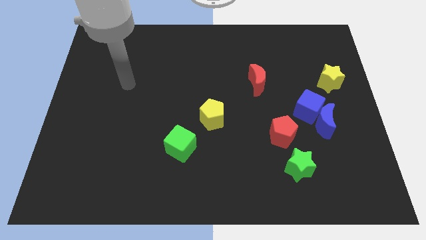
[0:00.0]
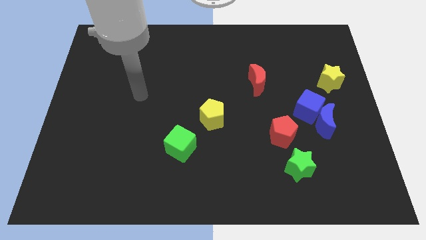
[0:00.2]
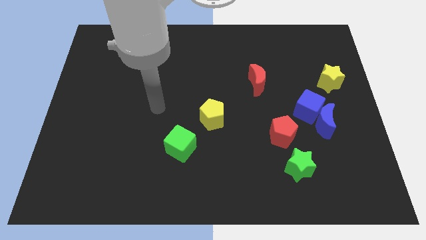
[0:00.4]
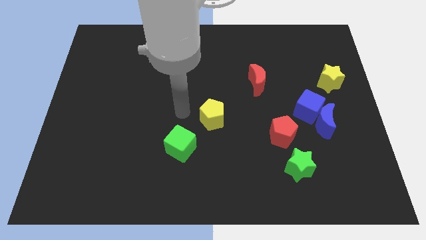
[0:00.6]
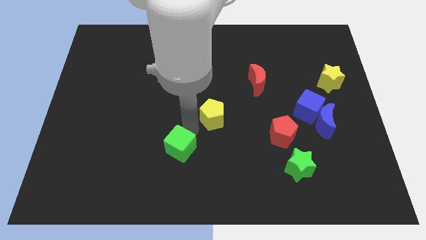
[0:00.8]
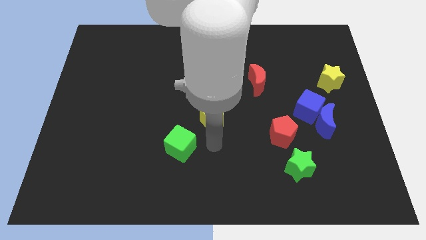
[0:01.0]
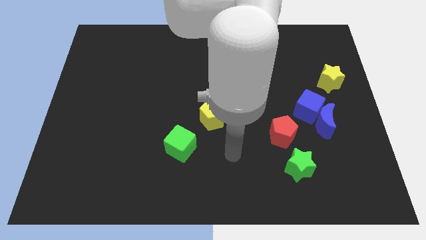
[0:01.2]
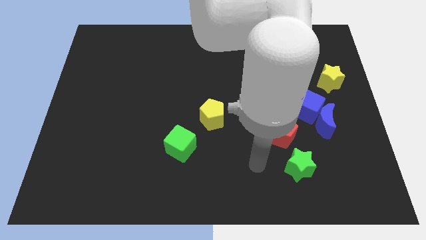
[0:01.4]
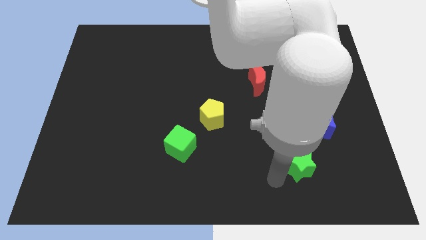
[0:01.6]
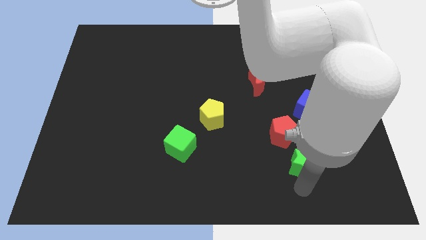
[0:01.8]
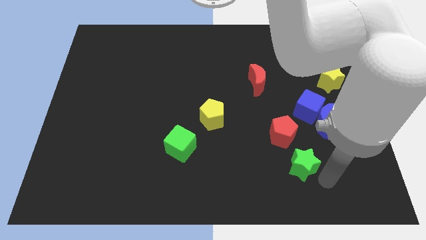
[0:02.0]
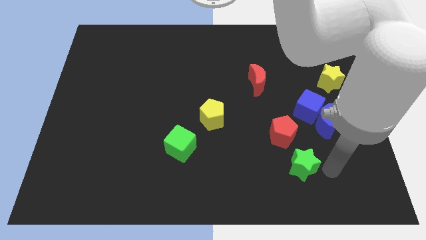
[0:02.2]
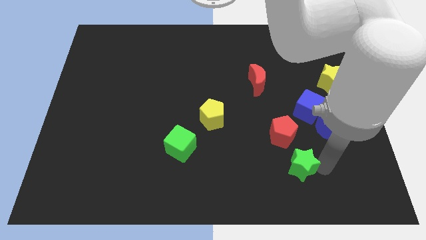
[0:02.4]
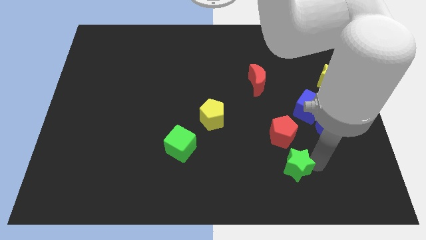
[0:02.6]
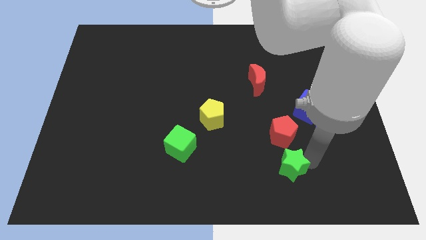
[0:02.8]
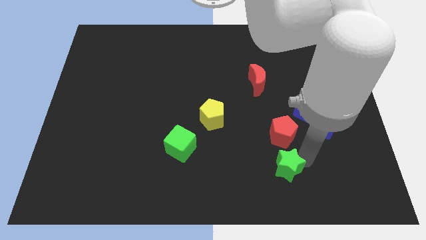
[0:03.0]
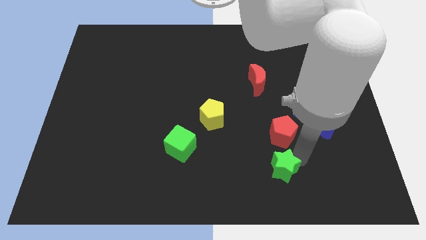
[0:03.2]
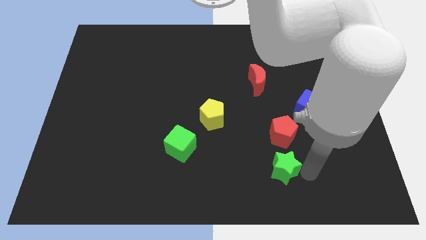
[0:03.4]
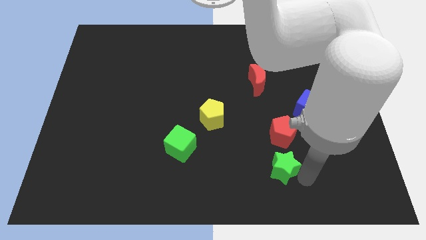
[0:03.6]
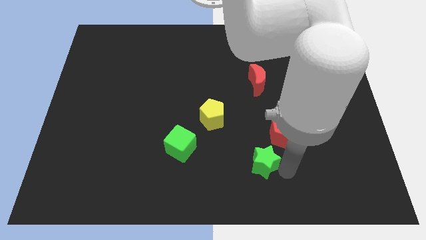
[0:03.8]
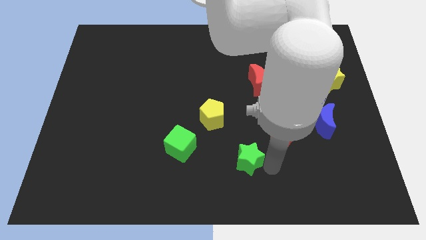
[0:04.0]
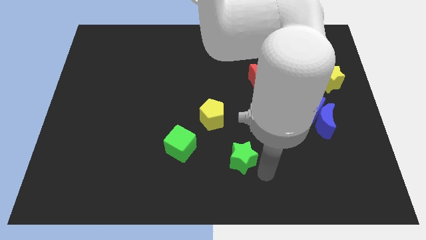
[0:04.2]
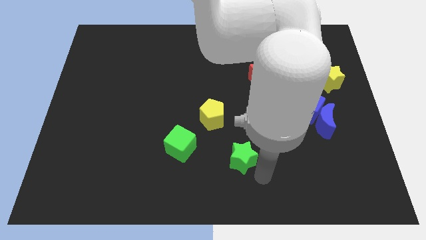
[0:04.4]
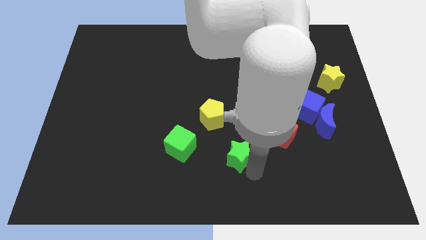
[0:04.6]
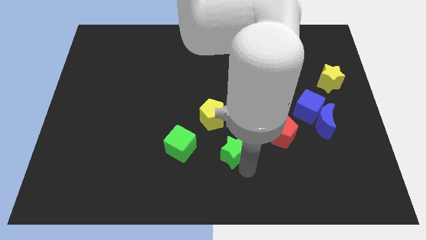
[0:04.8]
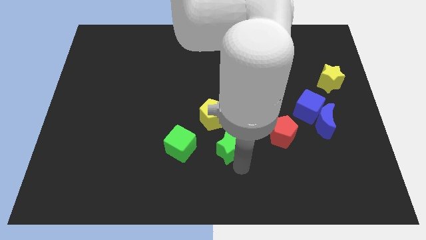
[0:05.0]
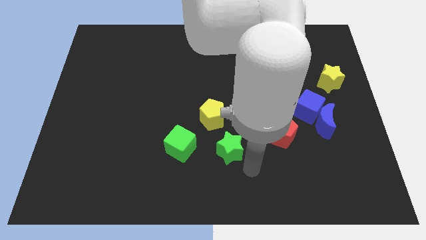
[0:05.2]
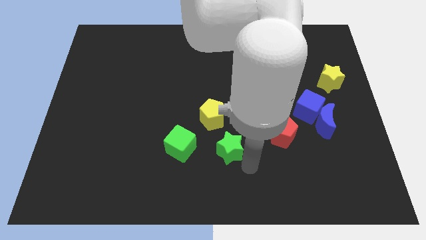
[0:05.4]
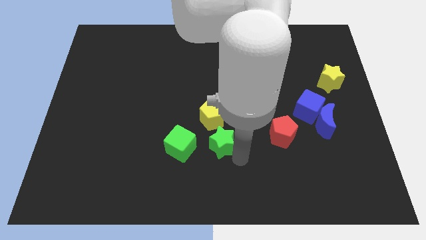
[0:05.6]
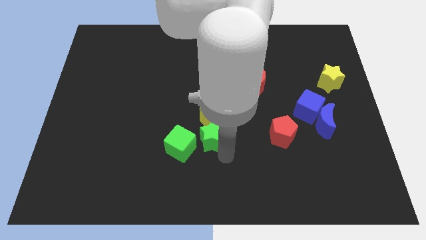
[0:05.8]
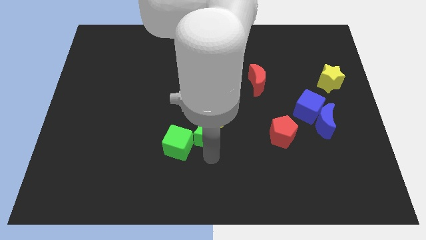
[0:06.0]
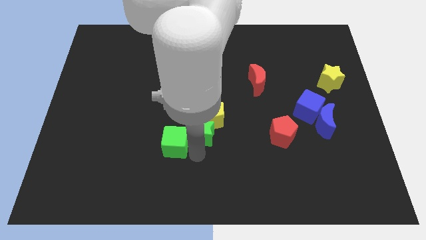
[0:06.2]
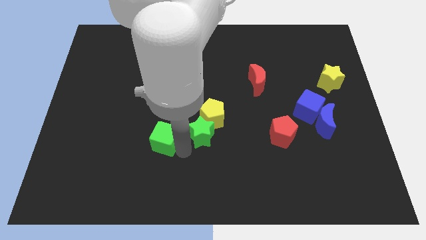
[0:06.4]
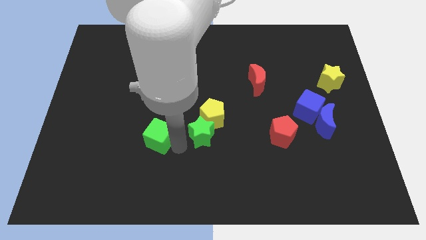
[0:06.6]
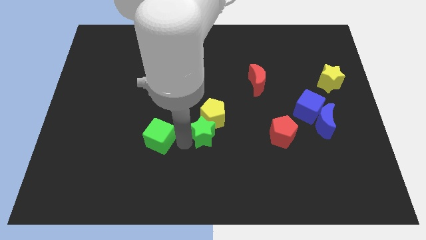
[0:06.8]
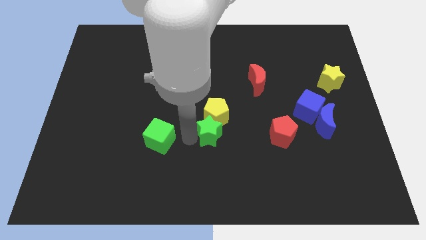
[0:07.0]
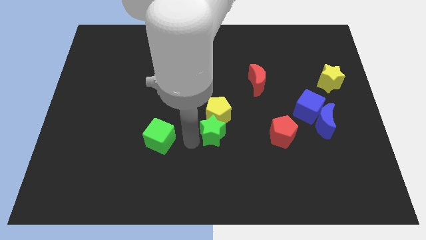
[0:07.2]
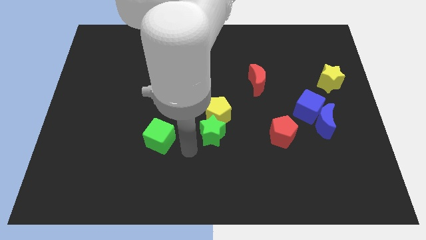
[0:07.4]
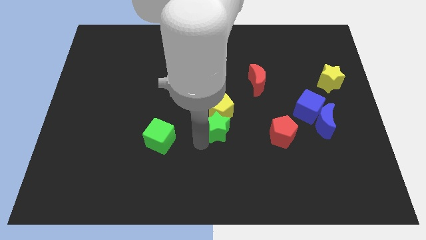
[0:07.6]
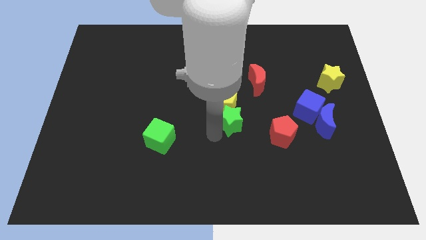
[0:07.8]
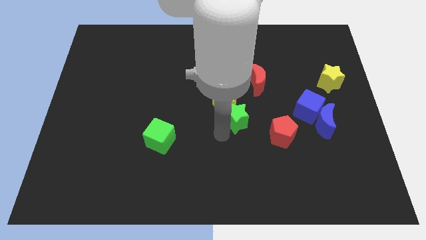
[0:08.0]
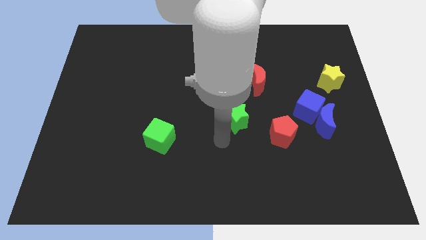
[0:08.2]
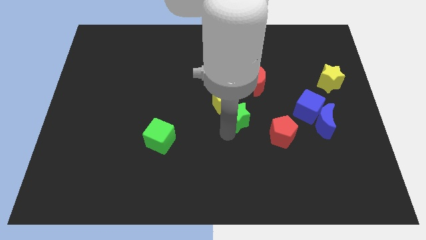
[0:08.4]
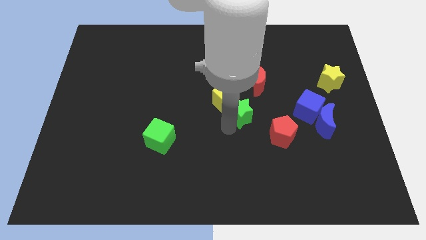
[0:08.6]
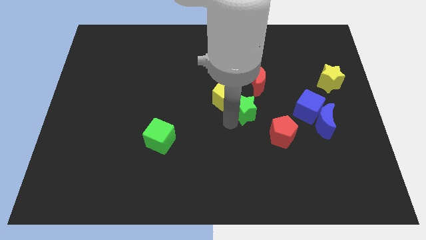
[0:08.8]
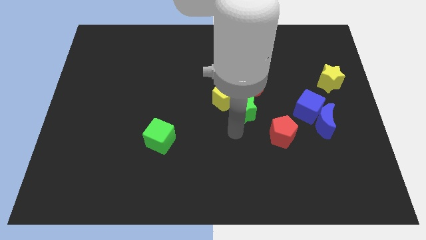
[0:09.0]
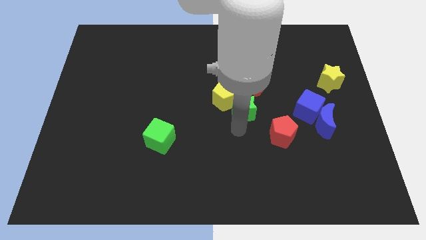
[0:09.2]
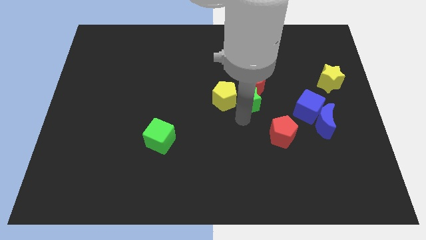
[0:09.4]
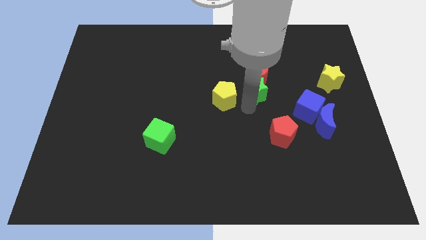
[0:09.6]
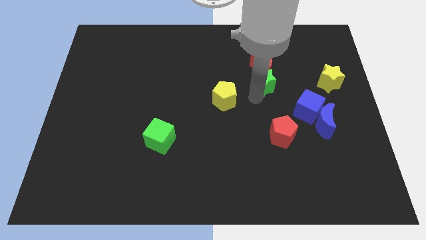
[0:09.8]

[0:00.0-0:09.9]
put the green star to the red moon

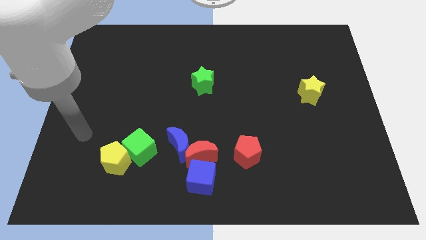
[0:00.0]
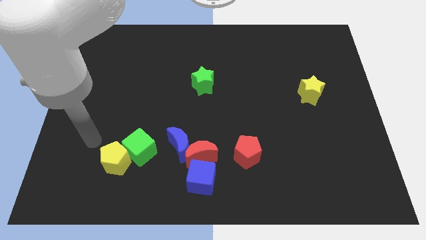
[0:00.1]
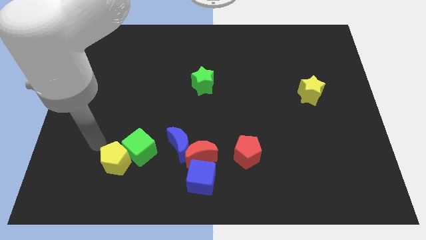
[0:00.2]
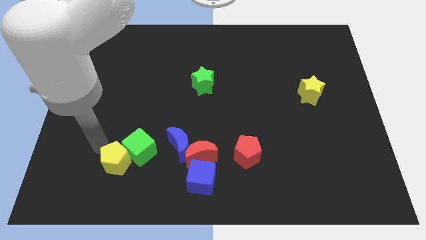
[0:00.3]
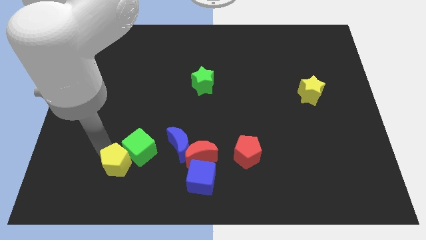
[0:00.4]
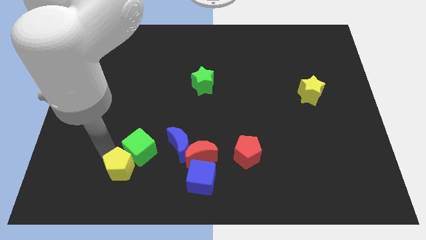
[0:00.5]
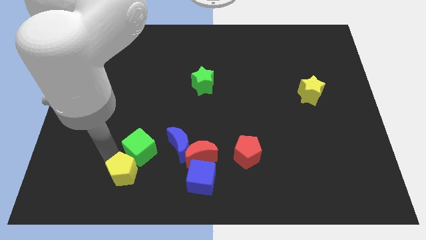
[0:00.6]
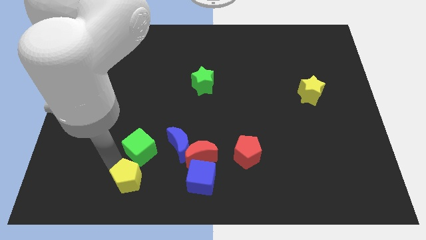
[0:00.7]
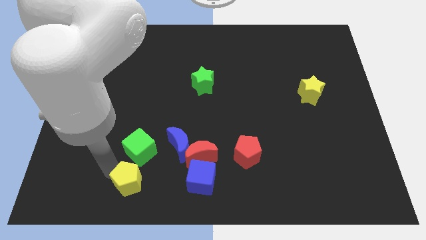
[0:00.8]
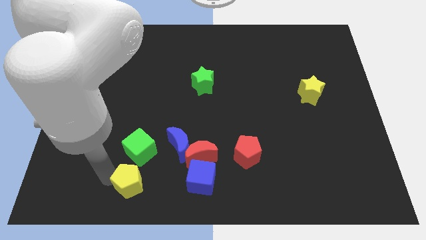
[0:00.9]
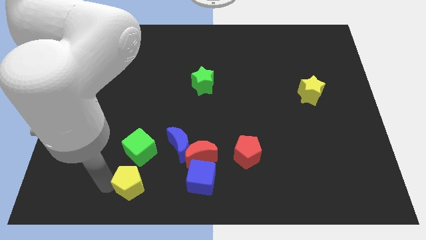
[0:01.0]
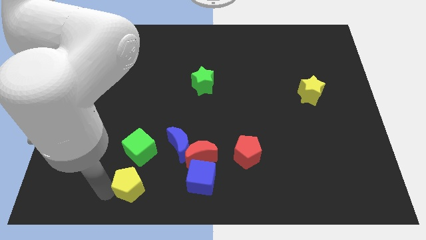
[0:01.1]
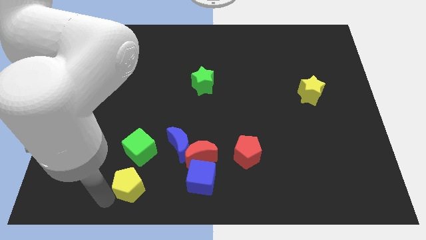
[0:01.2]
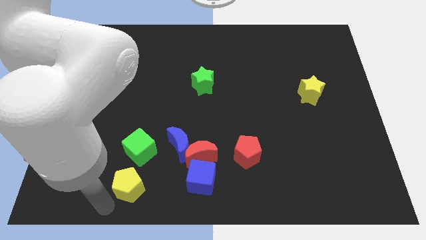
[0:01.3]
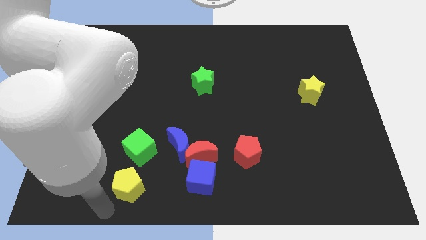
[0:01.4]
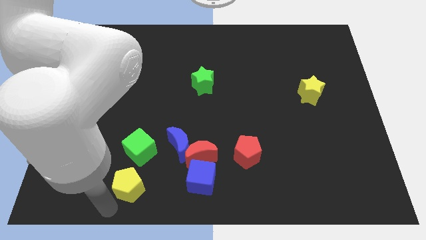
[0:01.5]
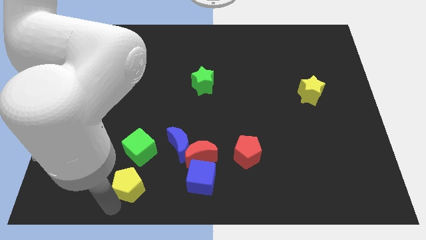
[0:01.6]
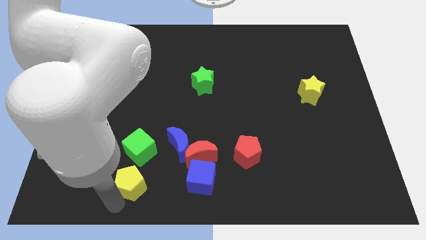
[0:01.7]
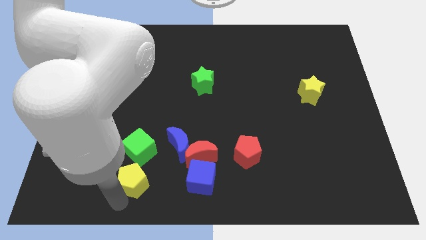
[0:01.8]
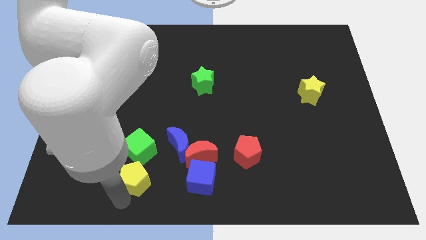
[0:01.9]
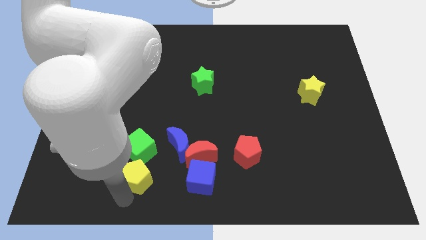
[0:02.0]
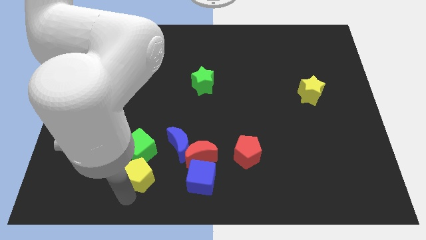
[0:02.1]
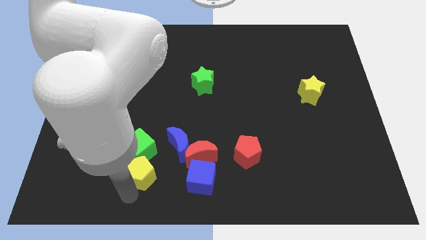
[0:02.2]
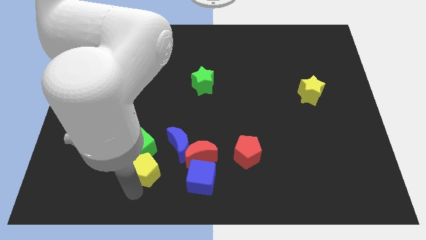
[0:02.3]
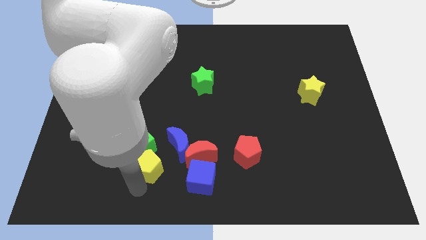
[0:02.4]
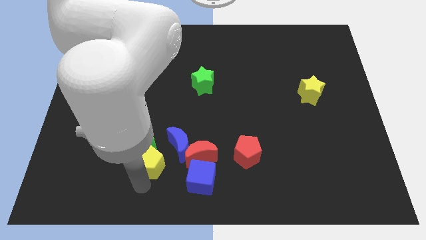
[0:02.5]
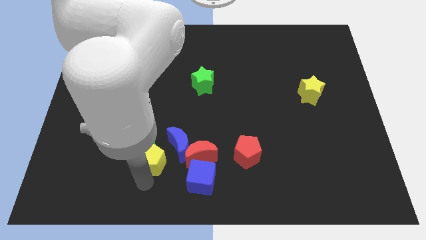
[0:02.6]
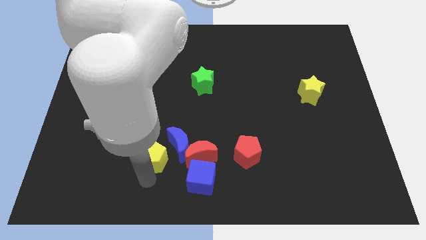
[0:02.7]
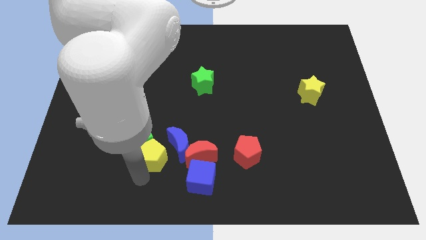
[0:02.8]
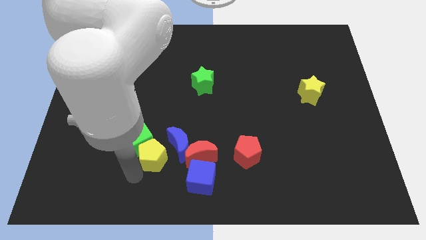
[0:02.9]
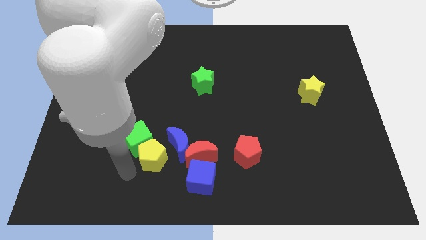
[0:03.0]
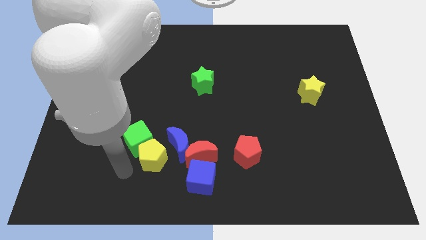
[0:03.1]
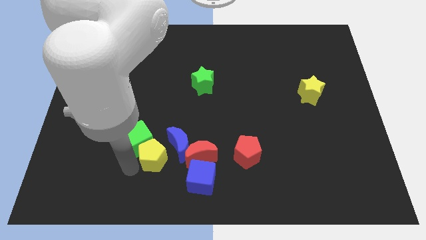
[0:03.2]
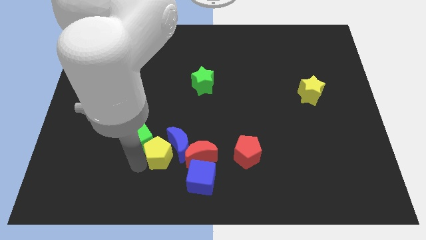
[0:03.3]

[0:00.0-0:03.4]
move the yellow pentagon close to the blue moon
